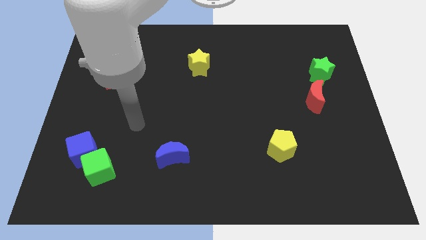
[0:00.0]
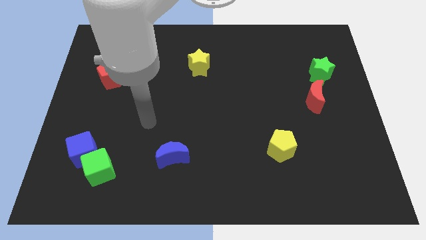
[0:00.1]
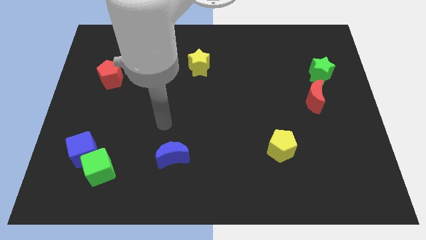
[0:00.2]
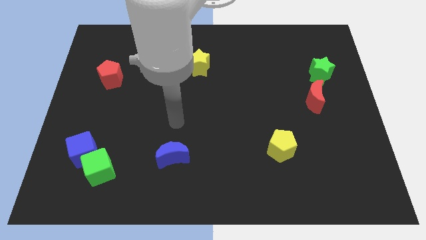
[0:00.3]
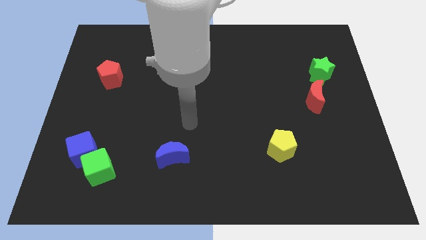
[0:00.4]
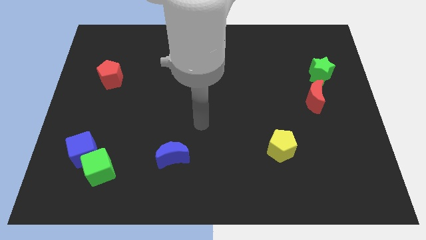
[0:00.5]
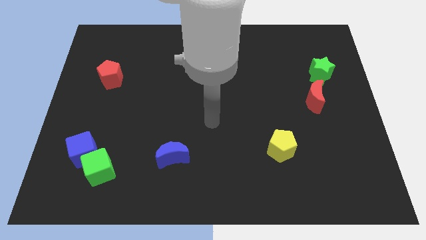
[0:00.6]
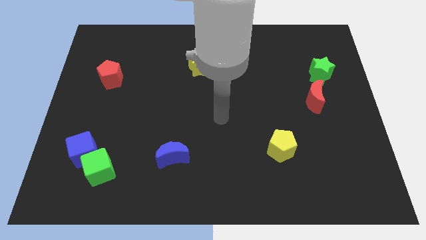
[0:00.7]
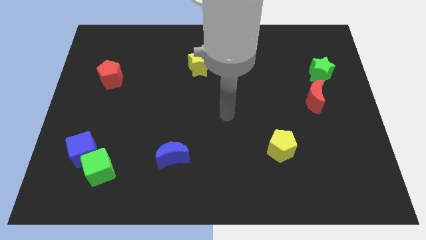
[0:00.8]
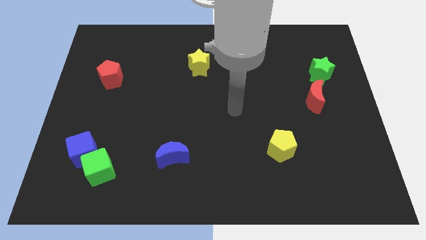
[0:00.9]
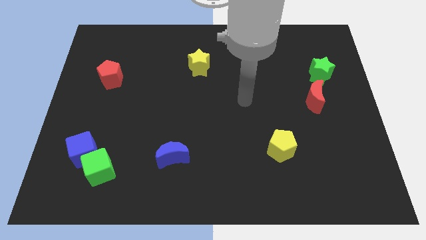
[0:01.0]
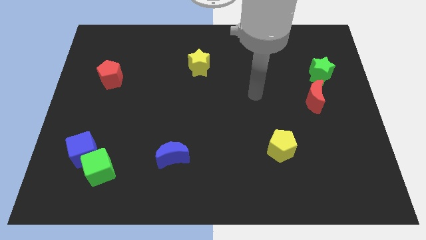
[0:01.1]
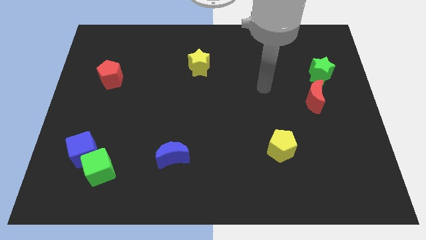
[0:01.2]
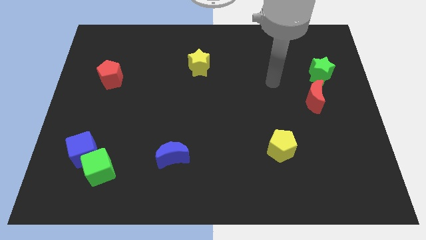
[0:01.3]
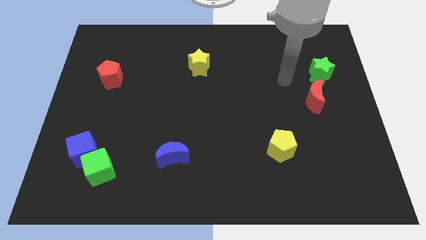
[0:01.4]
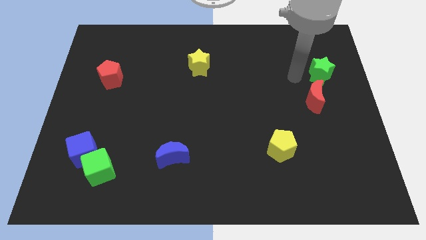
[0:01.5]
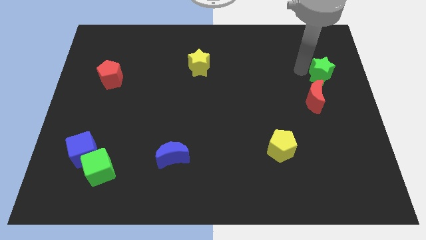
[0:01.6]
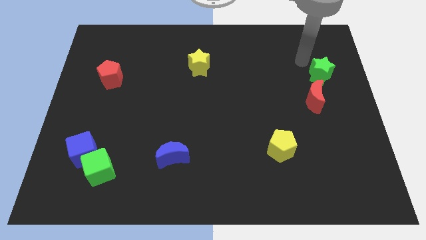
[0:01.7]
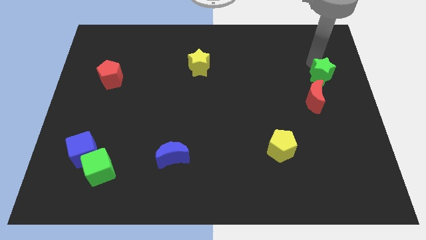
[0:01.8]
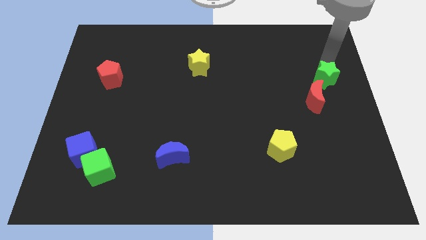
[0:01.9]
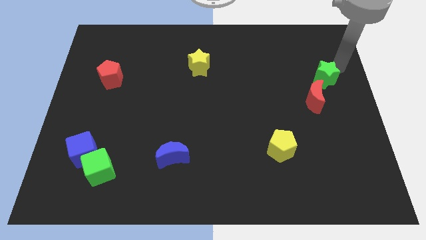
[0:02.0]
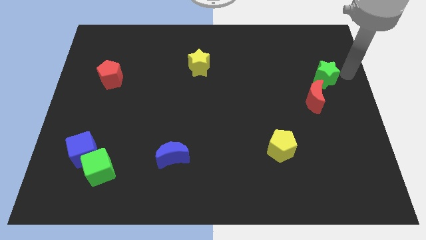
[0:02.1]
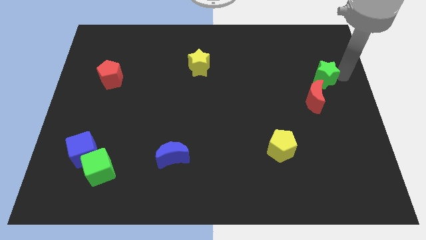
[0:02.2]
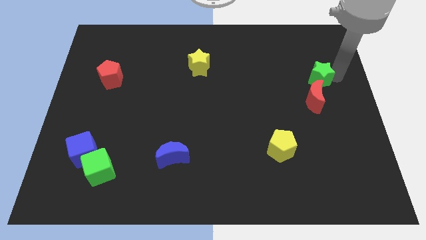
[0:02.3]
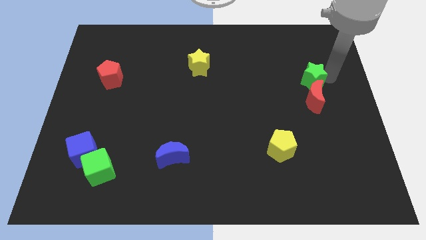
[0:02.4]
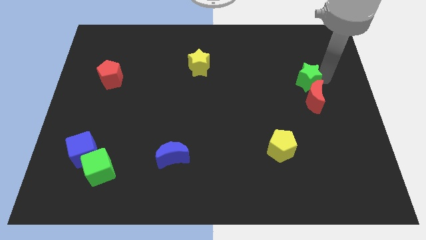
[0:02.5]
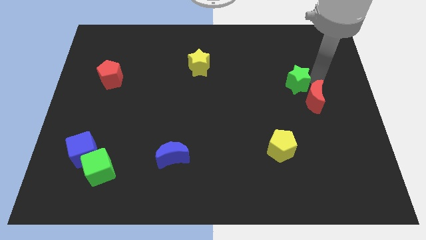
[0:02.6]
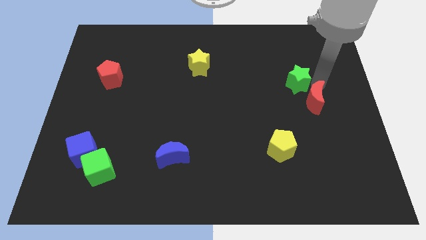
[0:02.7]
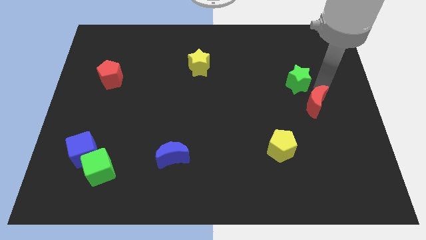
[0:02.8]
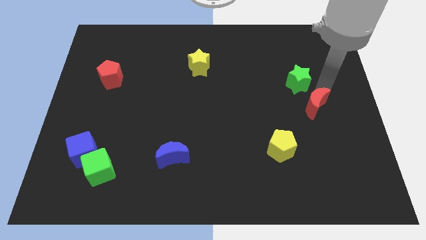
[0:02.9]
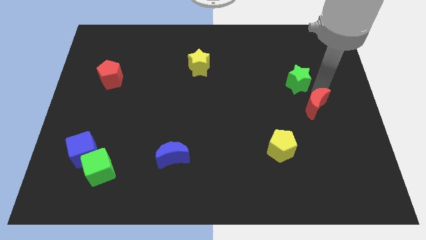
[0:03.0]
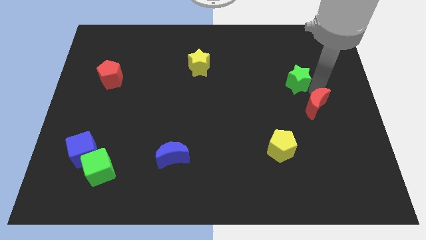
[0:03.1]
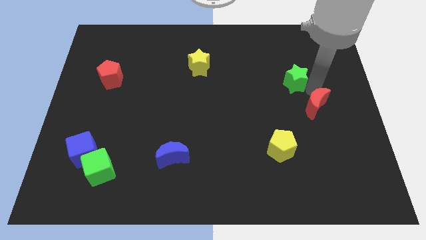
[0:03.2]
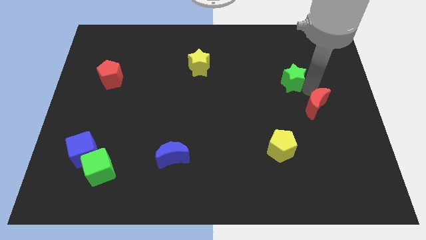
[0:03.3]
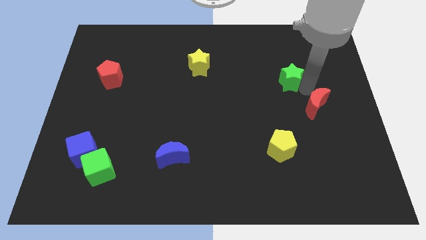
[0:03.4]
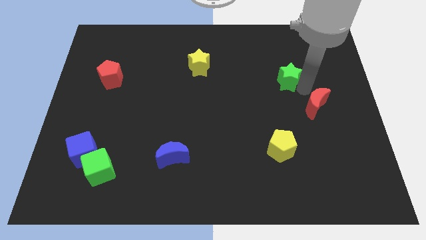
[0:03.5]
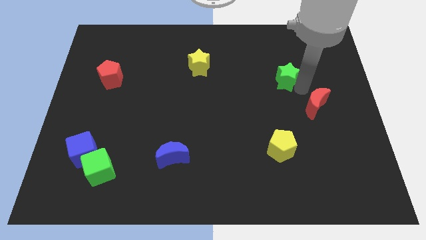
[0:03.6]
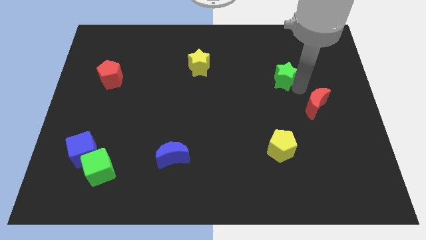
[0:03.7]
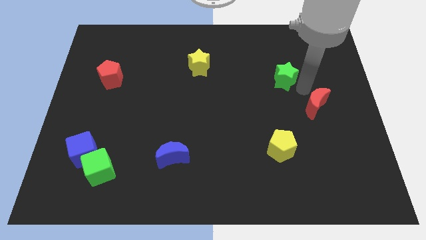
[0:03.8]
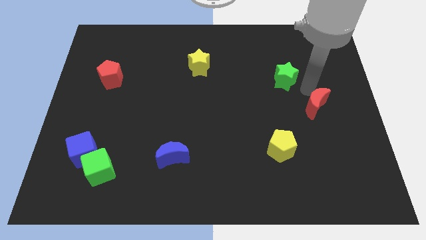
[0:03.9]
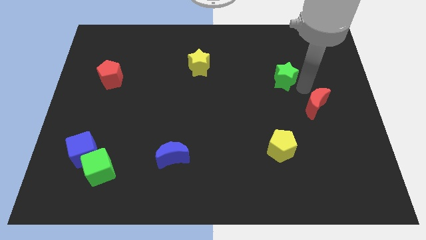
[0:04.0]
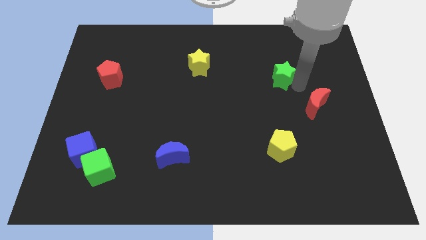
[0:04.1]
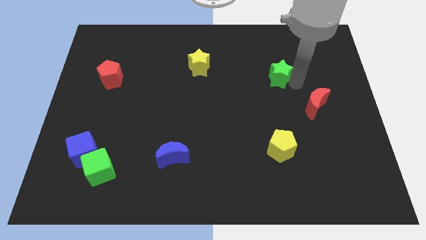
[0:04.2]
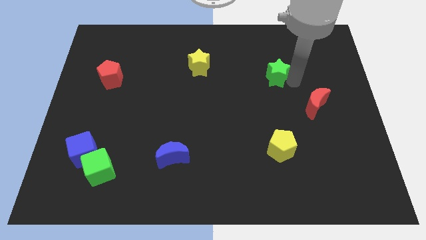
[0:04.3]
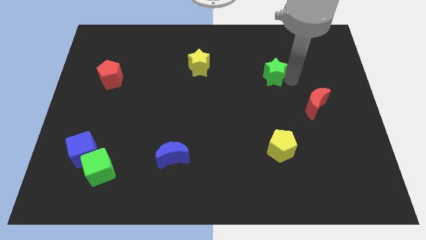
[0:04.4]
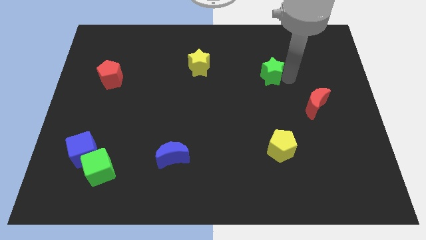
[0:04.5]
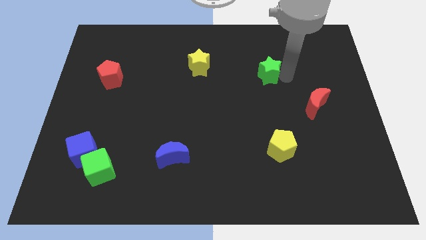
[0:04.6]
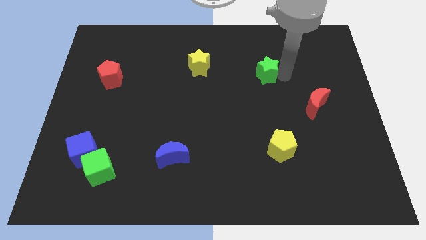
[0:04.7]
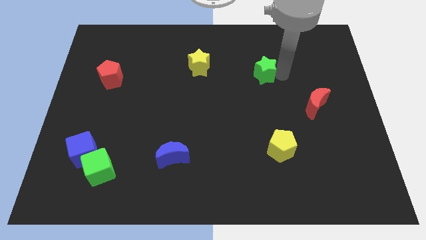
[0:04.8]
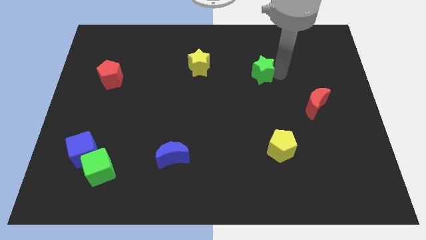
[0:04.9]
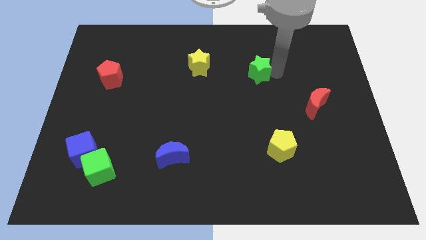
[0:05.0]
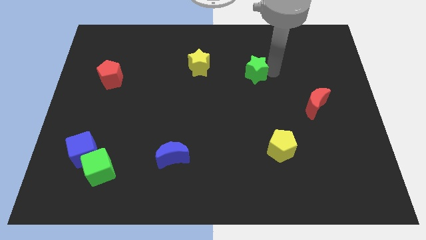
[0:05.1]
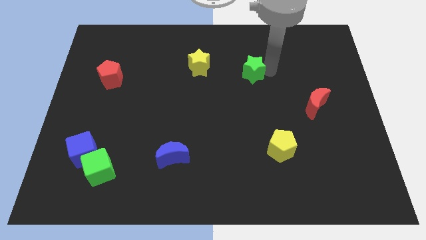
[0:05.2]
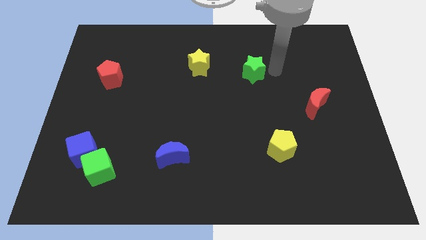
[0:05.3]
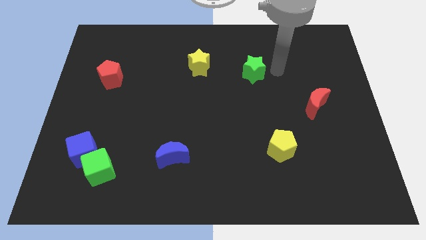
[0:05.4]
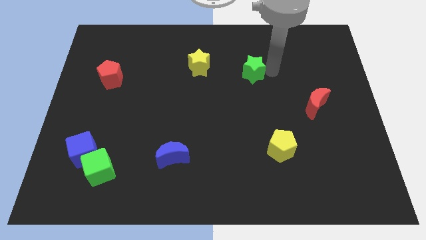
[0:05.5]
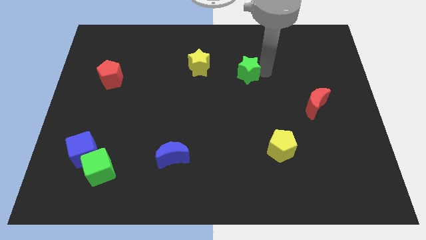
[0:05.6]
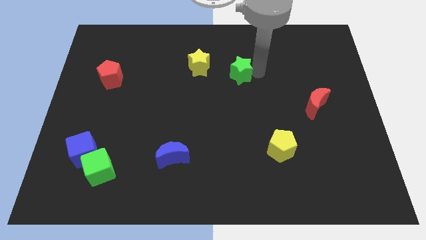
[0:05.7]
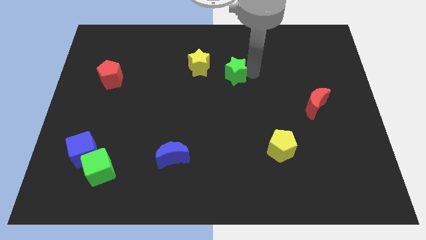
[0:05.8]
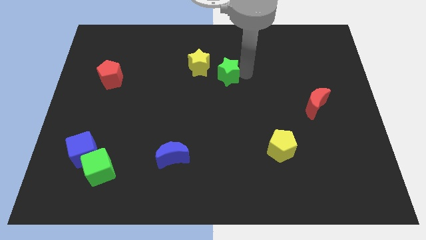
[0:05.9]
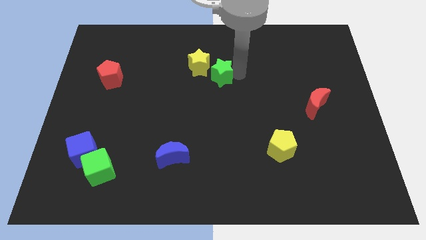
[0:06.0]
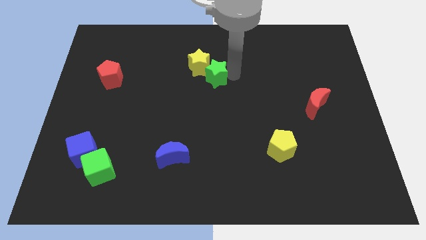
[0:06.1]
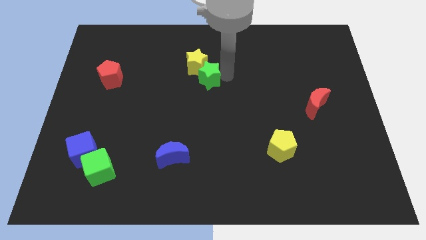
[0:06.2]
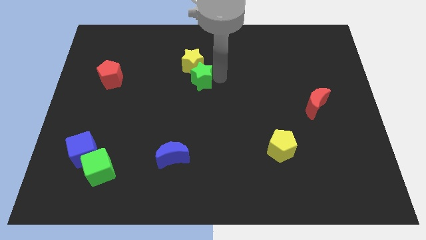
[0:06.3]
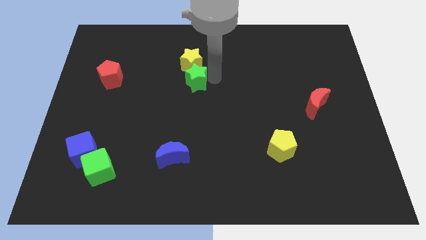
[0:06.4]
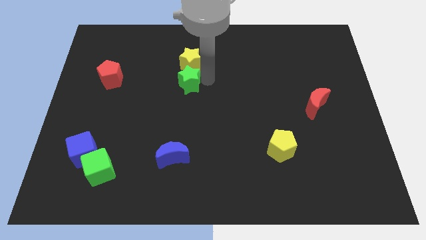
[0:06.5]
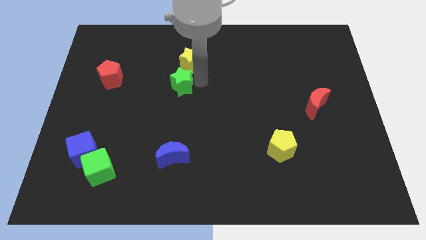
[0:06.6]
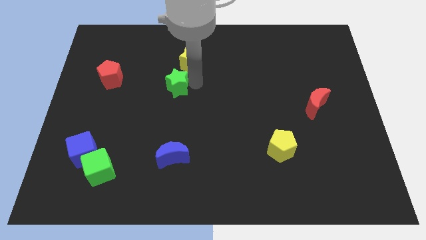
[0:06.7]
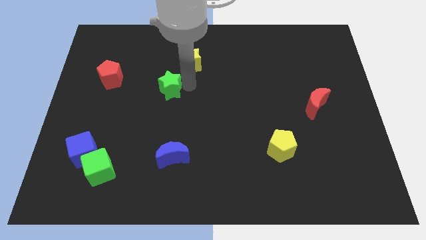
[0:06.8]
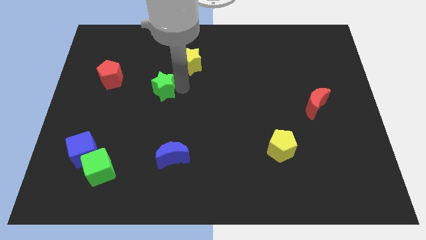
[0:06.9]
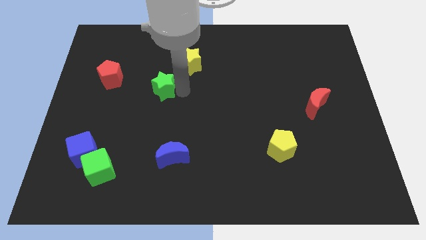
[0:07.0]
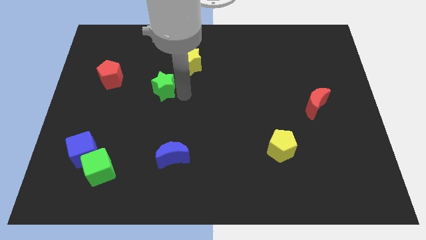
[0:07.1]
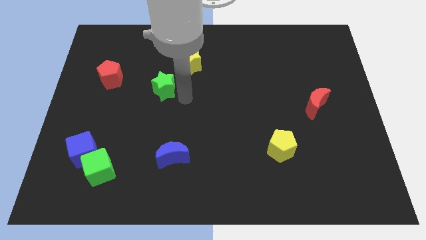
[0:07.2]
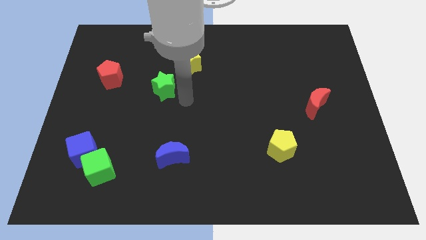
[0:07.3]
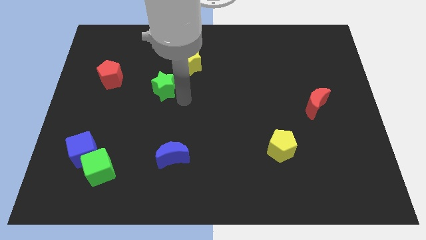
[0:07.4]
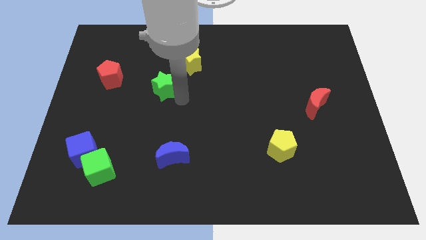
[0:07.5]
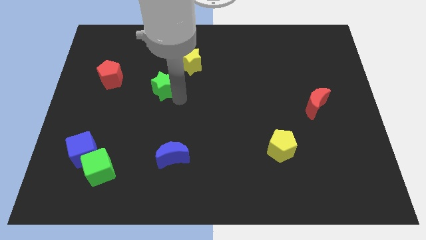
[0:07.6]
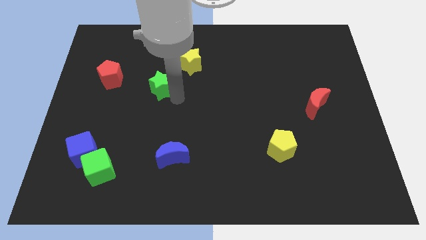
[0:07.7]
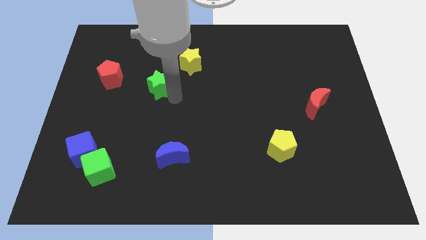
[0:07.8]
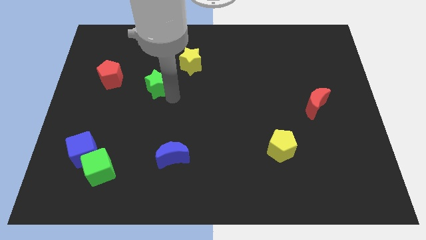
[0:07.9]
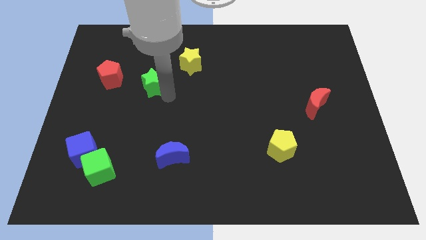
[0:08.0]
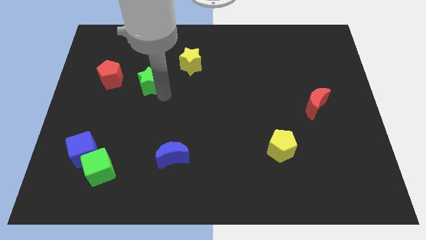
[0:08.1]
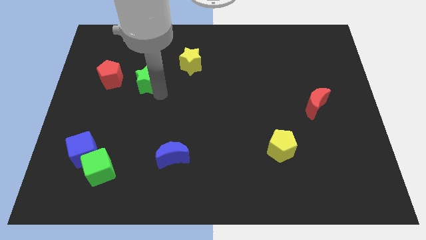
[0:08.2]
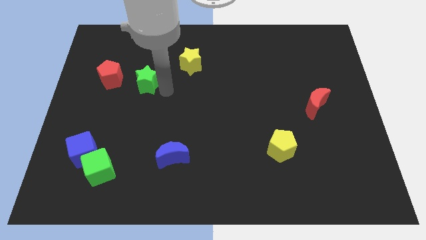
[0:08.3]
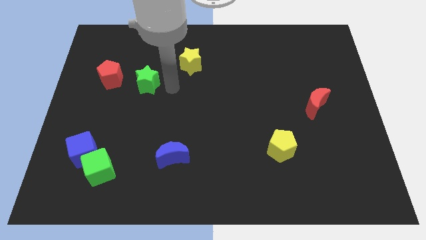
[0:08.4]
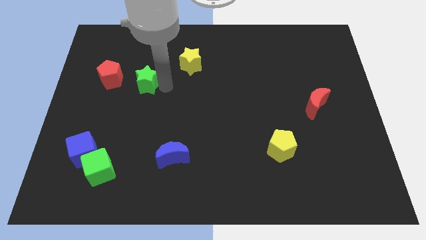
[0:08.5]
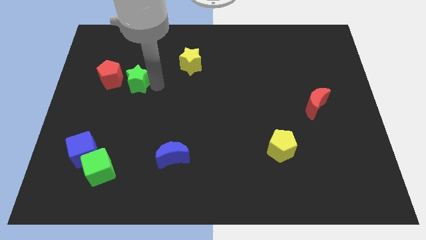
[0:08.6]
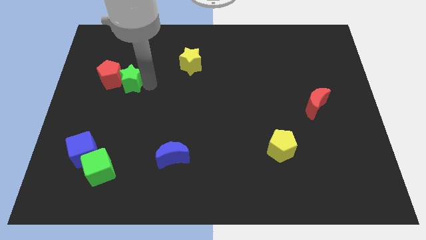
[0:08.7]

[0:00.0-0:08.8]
slide the green star towards the red pentagon
